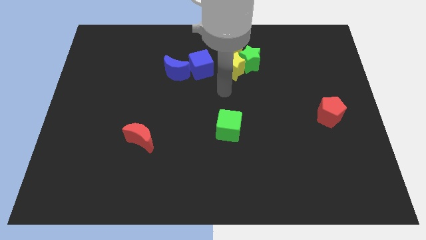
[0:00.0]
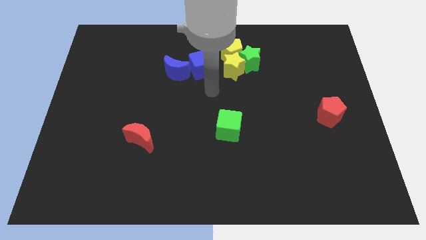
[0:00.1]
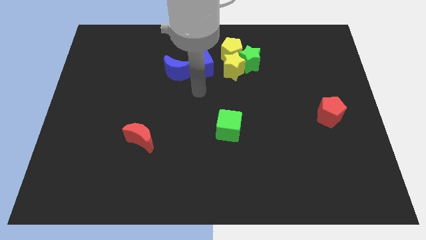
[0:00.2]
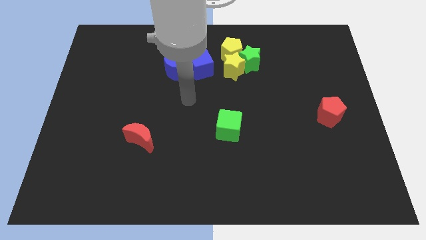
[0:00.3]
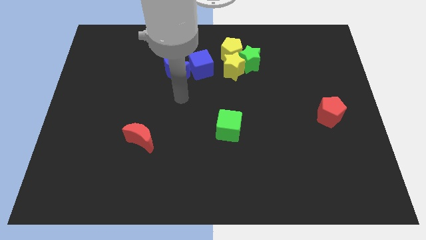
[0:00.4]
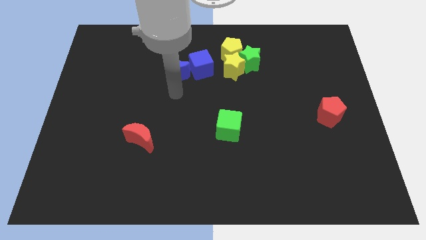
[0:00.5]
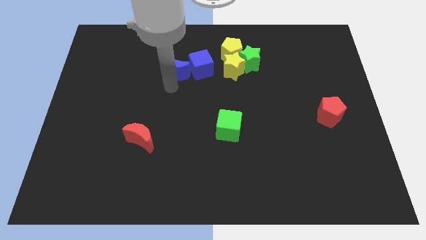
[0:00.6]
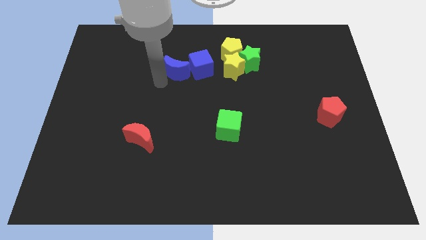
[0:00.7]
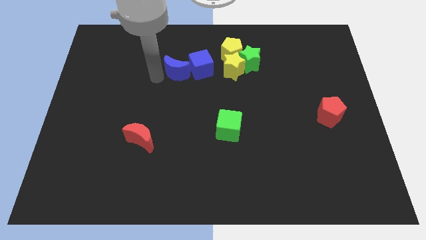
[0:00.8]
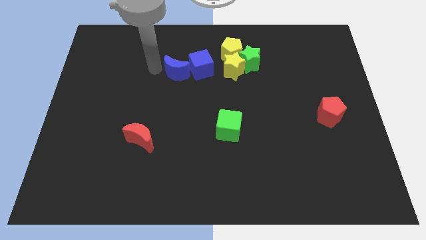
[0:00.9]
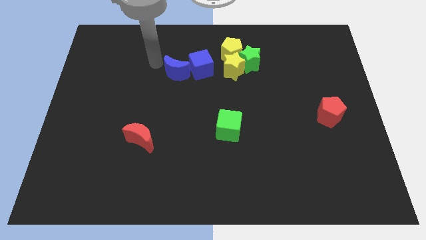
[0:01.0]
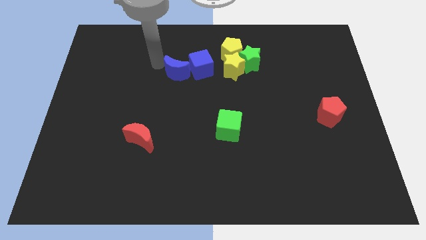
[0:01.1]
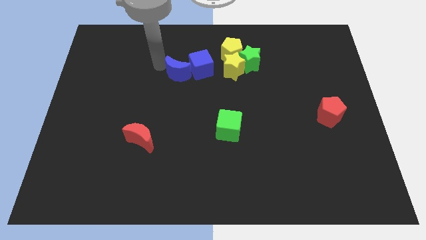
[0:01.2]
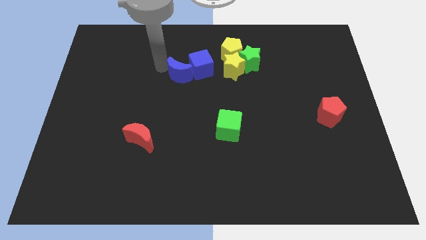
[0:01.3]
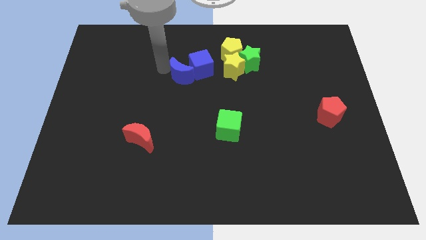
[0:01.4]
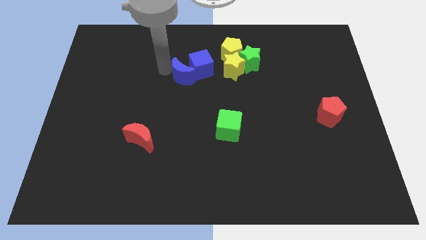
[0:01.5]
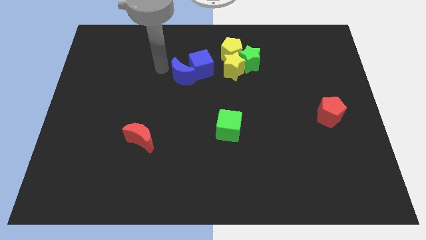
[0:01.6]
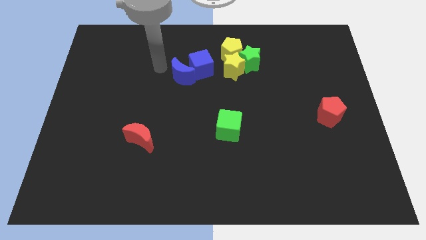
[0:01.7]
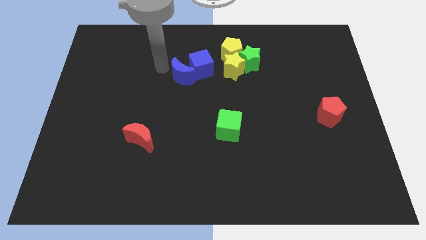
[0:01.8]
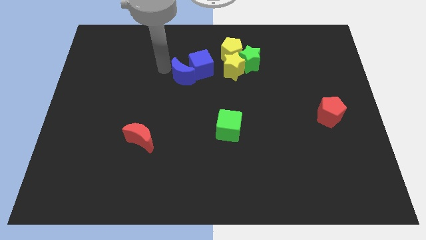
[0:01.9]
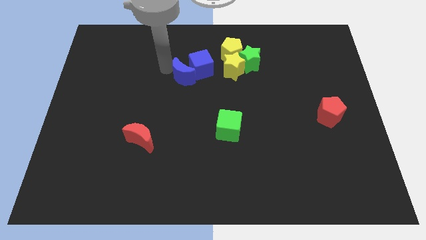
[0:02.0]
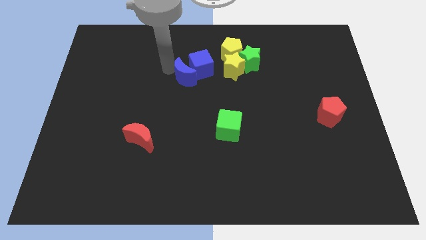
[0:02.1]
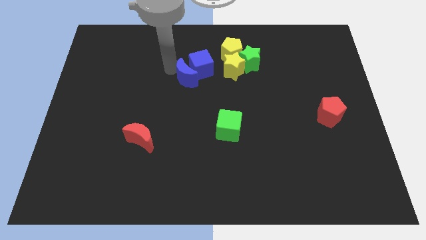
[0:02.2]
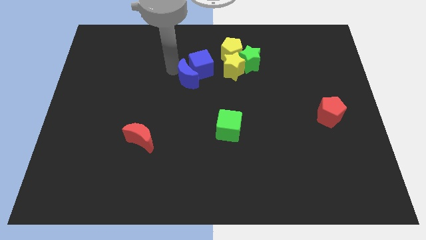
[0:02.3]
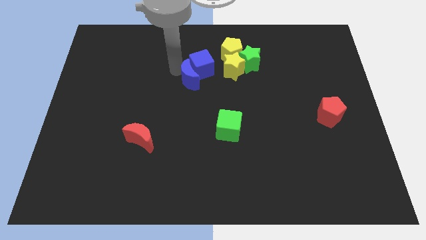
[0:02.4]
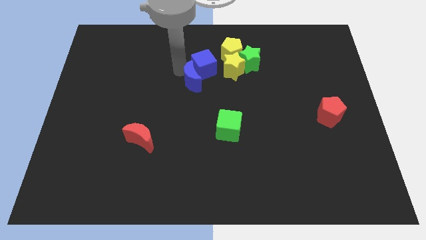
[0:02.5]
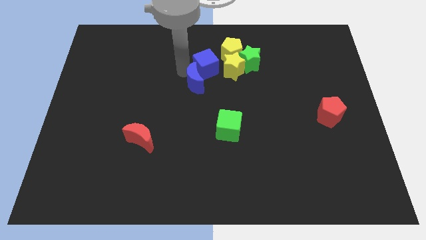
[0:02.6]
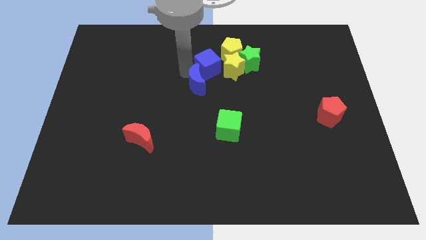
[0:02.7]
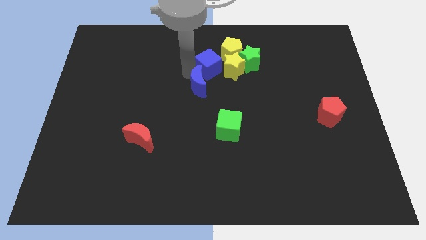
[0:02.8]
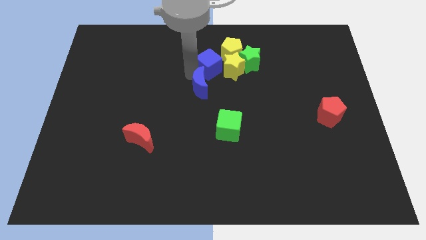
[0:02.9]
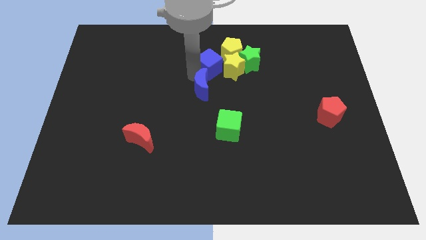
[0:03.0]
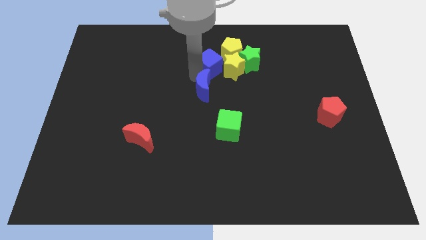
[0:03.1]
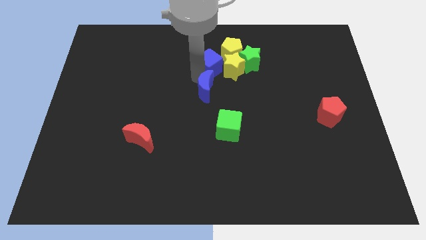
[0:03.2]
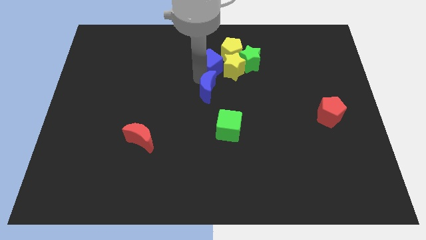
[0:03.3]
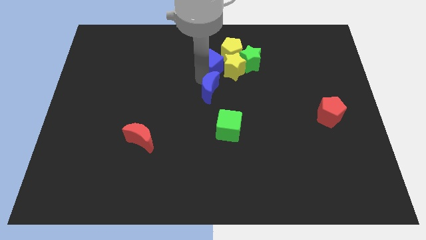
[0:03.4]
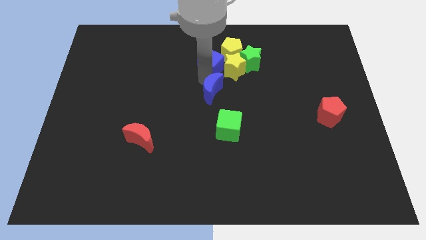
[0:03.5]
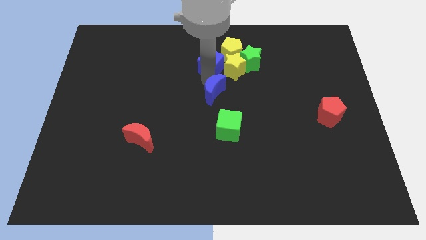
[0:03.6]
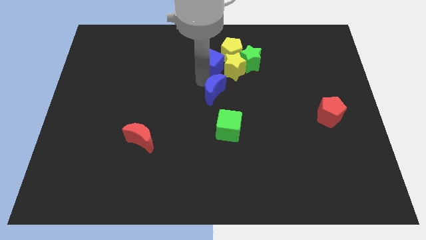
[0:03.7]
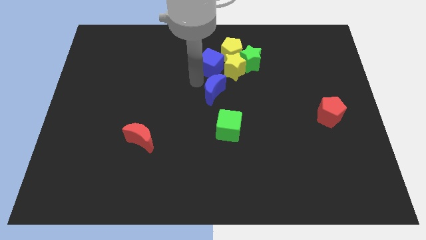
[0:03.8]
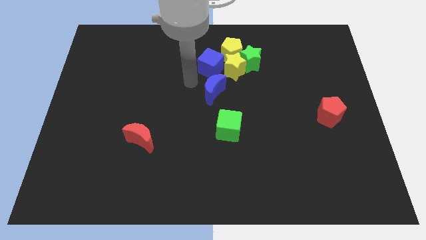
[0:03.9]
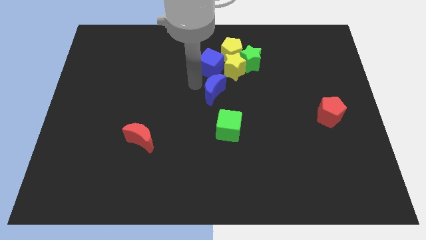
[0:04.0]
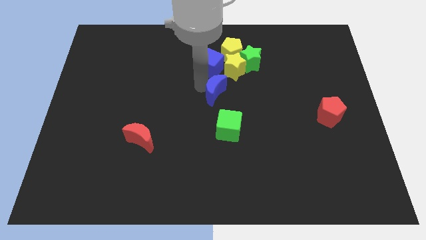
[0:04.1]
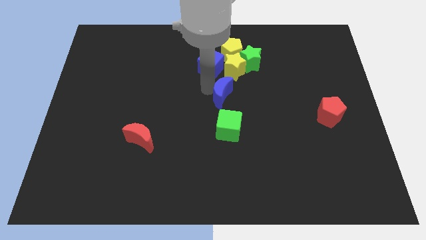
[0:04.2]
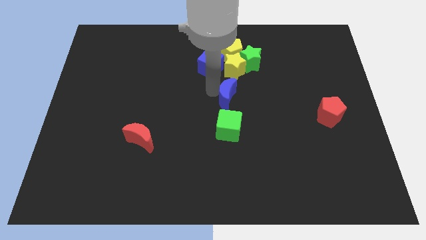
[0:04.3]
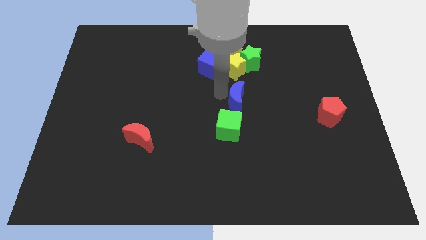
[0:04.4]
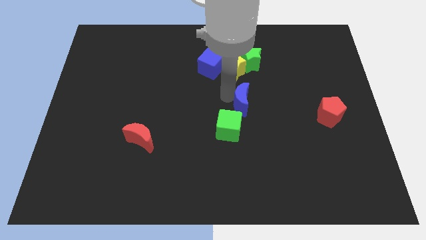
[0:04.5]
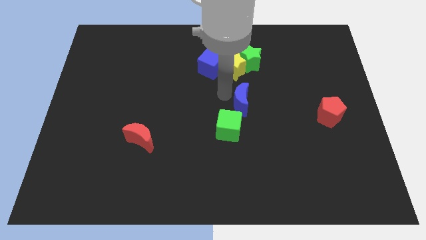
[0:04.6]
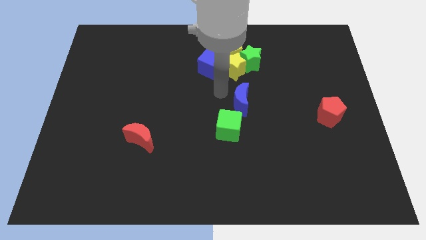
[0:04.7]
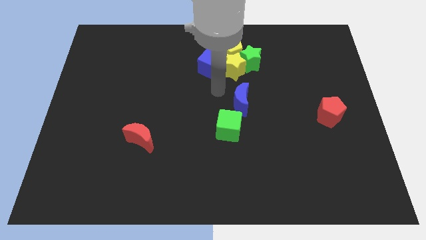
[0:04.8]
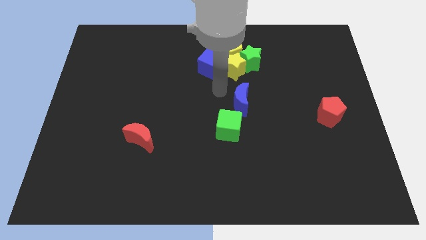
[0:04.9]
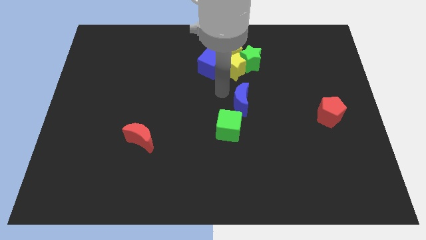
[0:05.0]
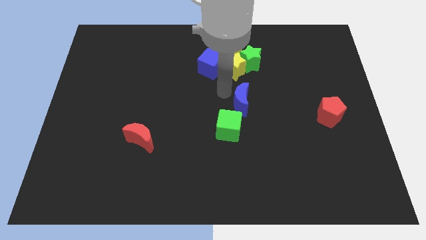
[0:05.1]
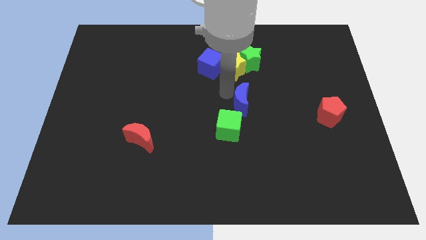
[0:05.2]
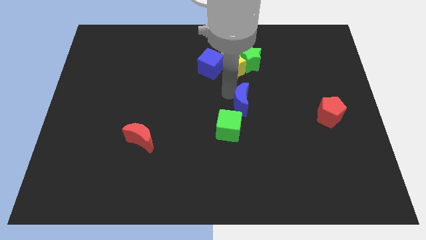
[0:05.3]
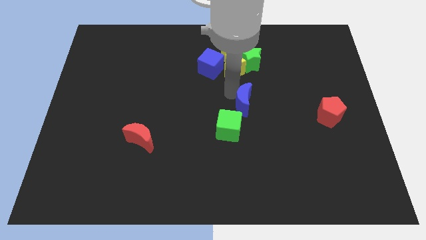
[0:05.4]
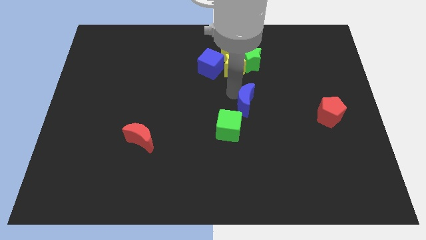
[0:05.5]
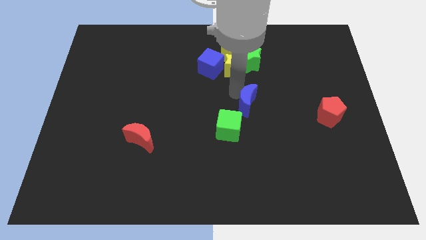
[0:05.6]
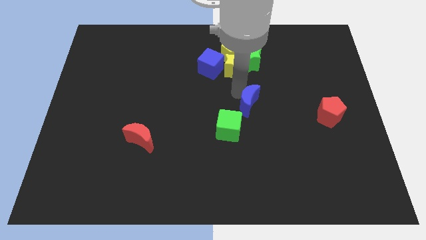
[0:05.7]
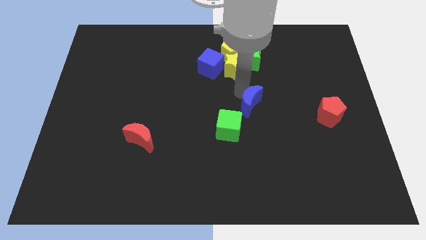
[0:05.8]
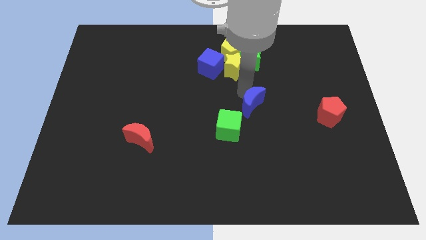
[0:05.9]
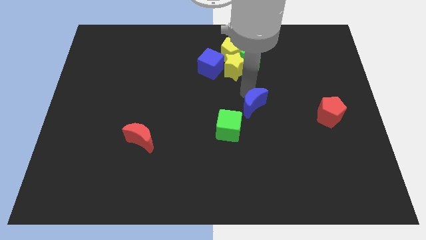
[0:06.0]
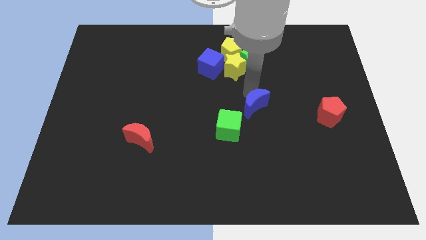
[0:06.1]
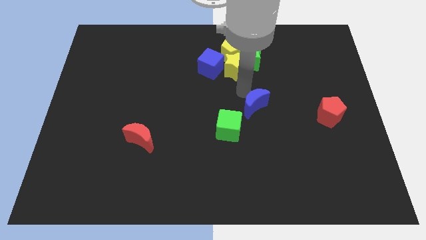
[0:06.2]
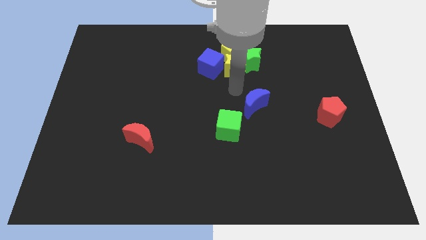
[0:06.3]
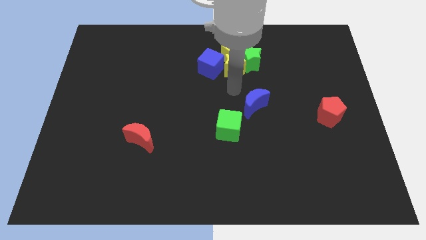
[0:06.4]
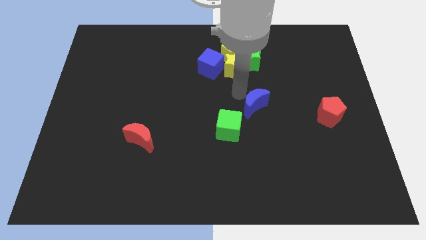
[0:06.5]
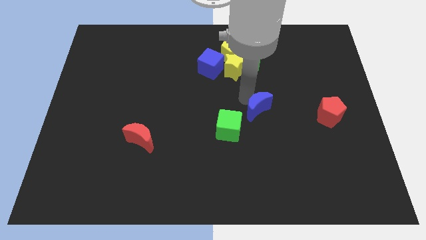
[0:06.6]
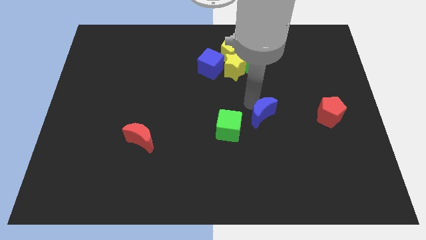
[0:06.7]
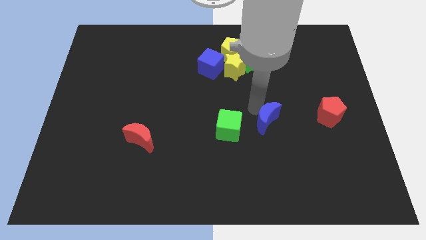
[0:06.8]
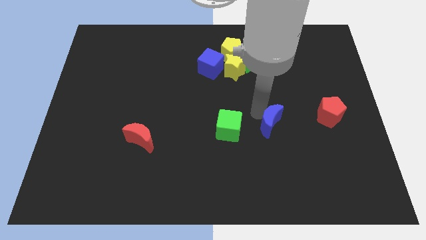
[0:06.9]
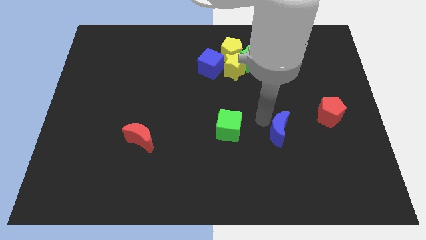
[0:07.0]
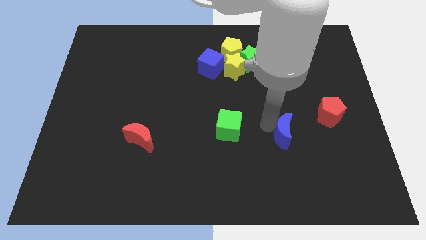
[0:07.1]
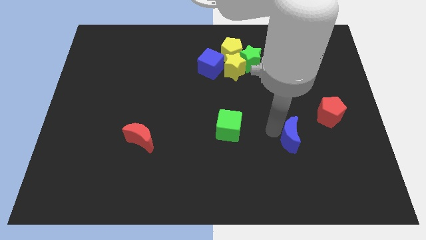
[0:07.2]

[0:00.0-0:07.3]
put the blue moon diagonally down and to the left of the red pentagon

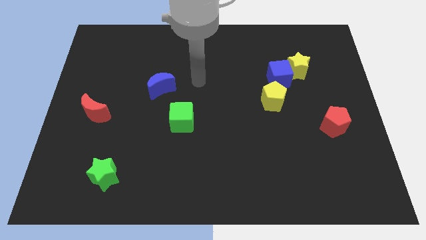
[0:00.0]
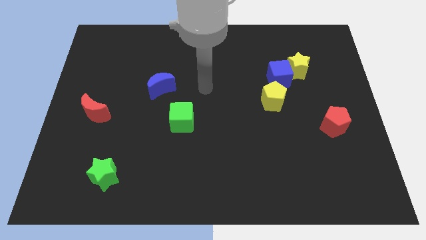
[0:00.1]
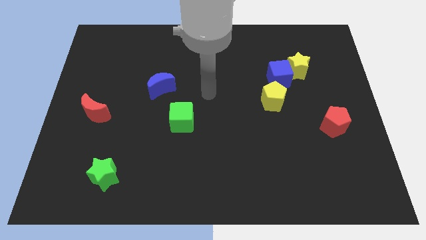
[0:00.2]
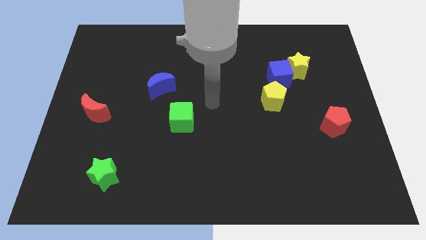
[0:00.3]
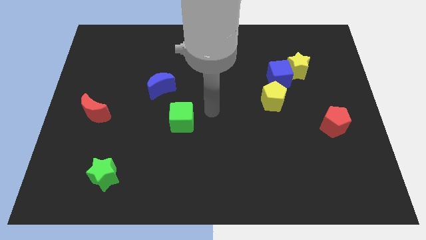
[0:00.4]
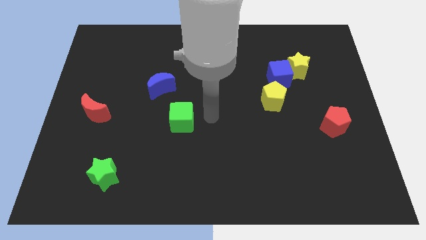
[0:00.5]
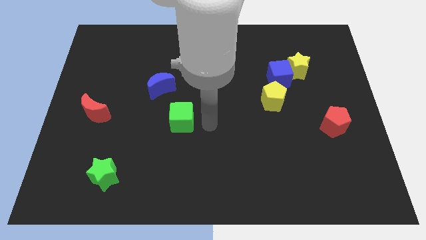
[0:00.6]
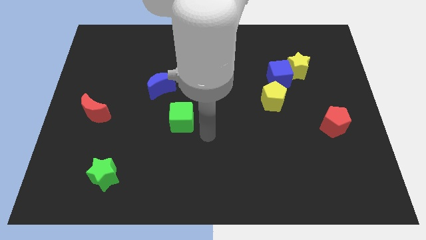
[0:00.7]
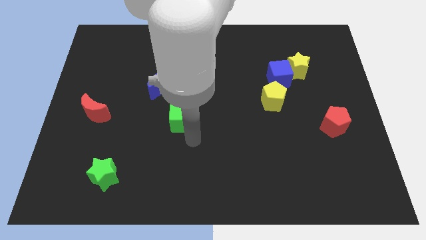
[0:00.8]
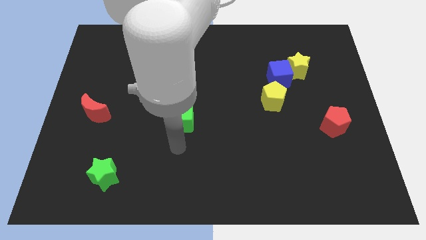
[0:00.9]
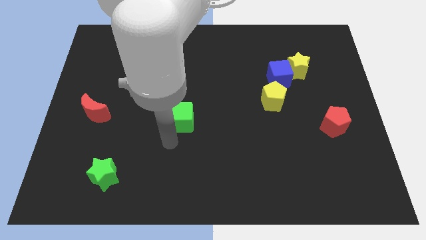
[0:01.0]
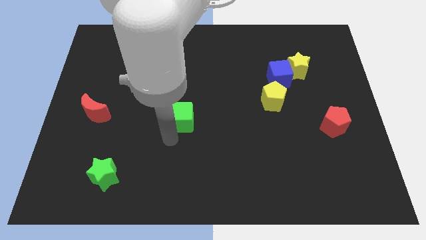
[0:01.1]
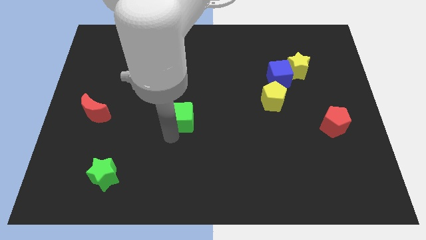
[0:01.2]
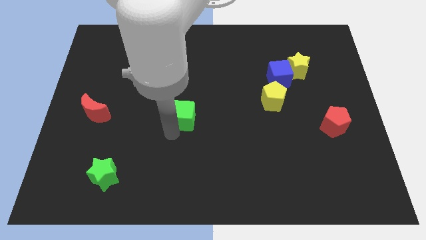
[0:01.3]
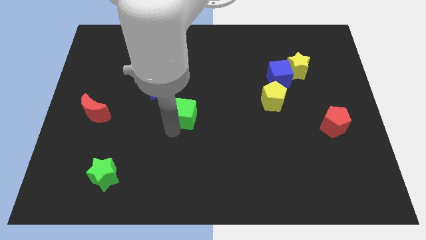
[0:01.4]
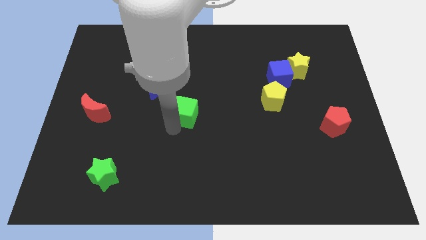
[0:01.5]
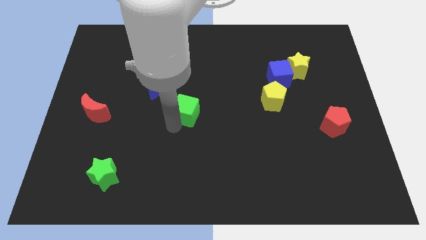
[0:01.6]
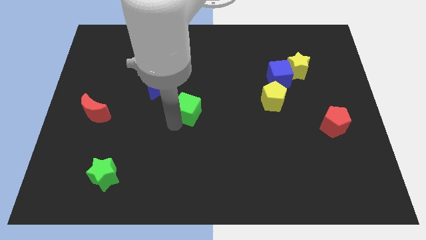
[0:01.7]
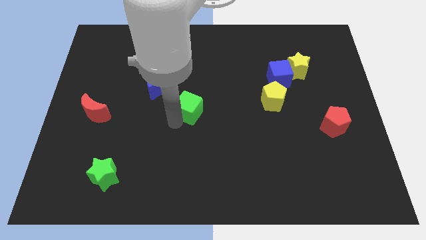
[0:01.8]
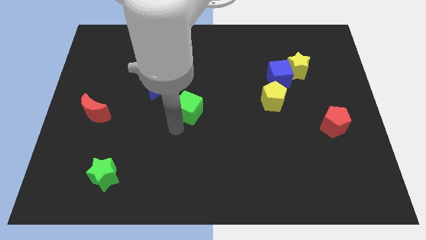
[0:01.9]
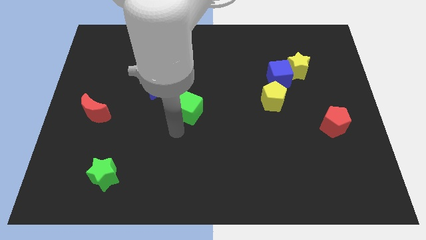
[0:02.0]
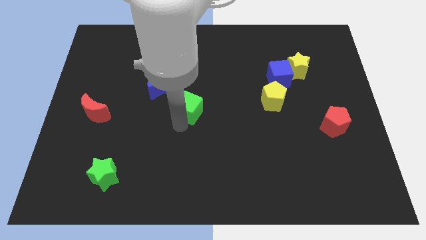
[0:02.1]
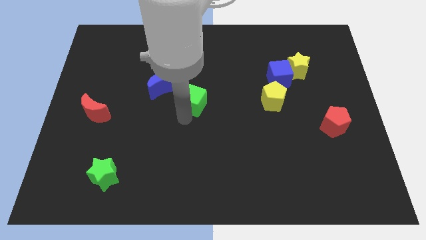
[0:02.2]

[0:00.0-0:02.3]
put the green cube right of the blue moon
